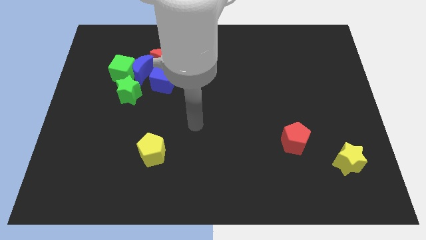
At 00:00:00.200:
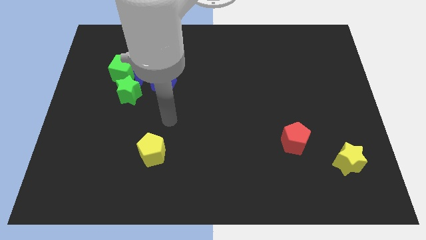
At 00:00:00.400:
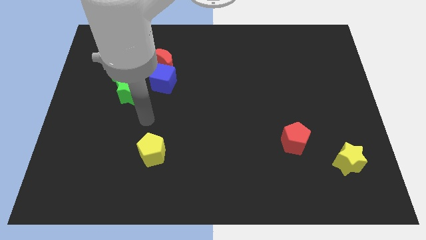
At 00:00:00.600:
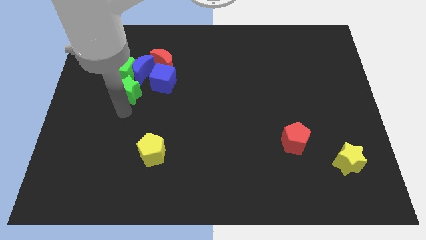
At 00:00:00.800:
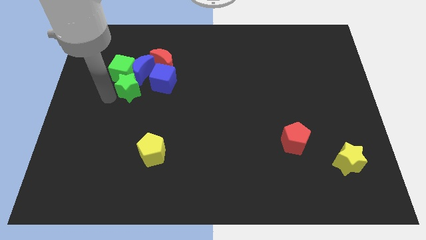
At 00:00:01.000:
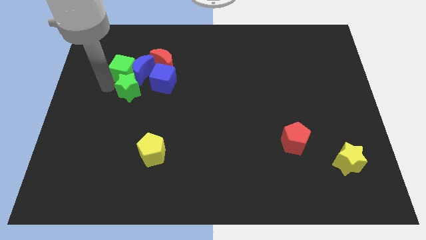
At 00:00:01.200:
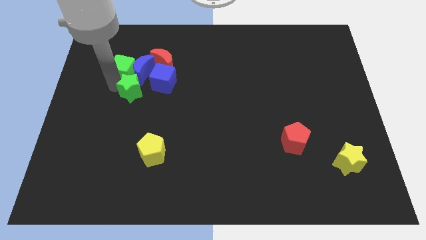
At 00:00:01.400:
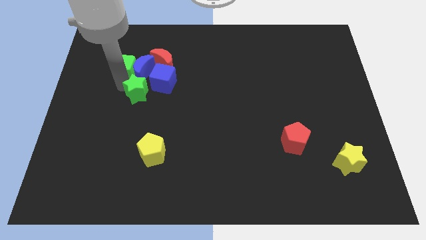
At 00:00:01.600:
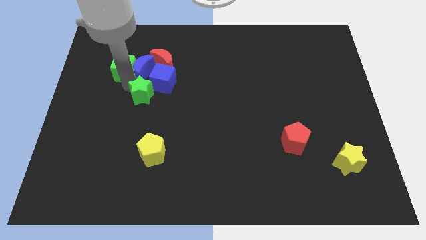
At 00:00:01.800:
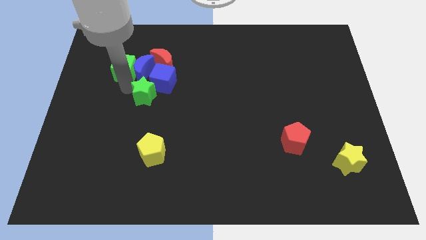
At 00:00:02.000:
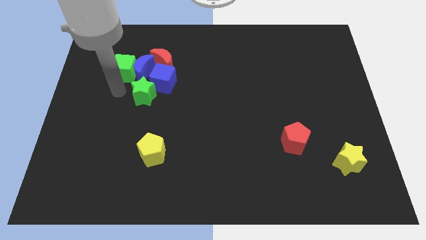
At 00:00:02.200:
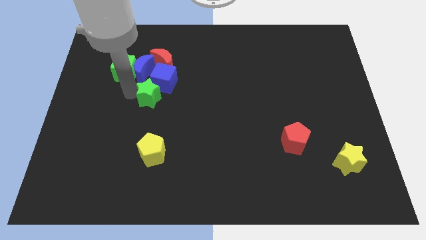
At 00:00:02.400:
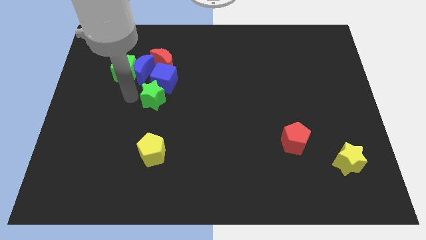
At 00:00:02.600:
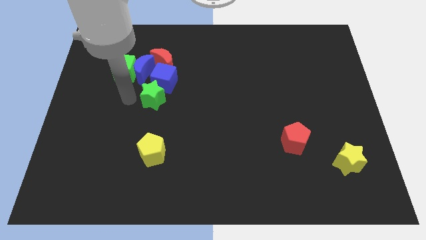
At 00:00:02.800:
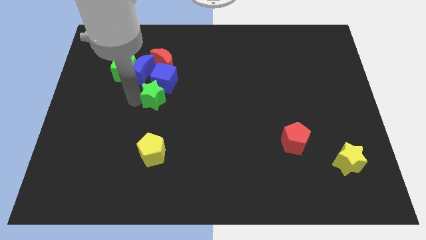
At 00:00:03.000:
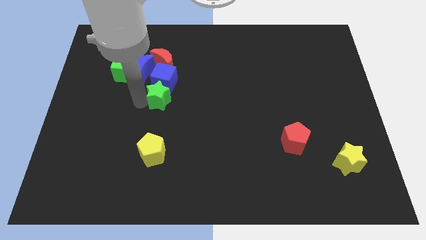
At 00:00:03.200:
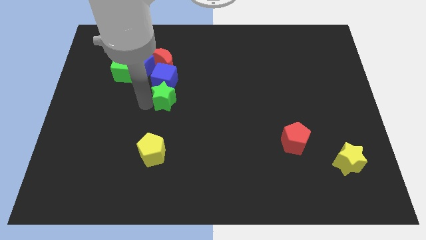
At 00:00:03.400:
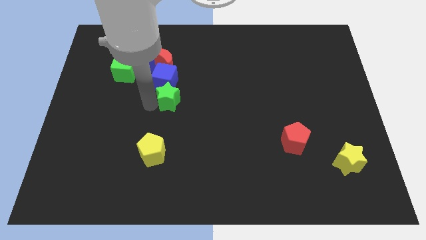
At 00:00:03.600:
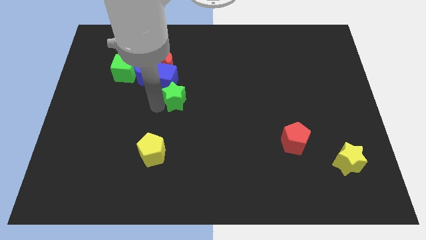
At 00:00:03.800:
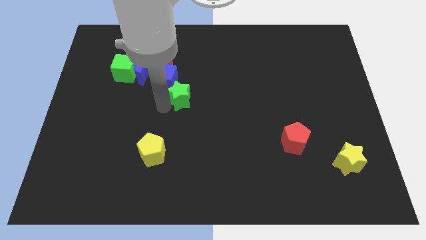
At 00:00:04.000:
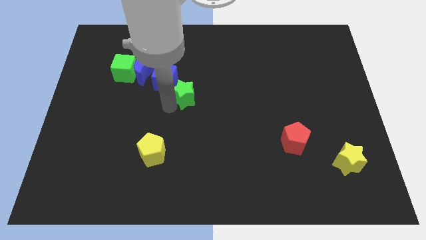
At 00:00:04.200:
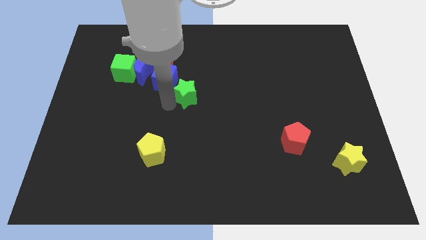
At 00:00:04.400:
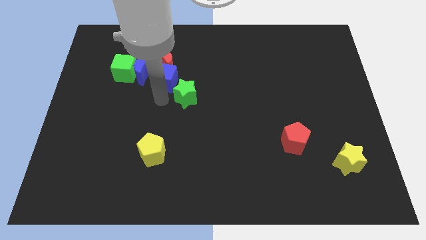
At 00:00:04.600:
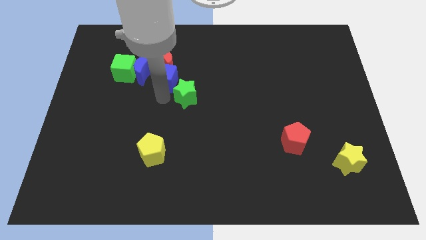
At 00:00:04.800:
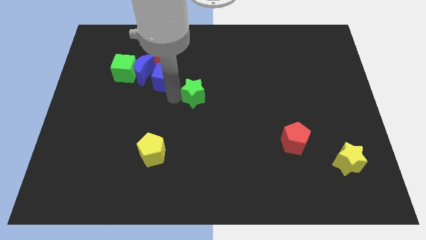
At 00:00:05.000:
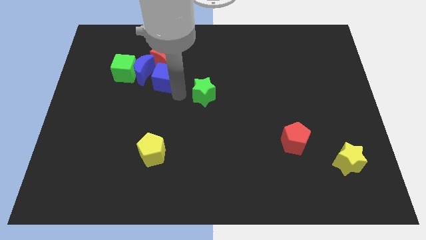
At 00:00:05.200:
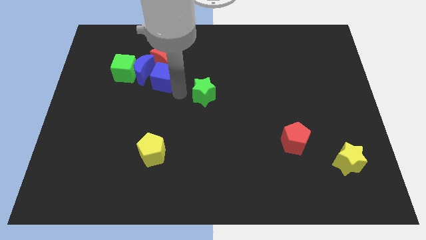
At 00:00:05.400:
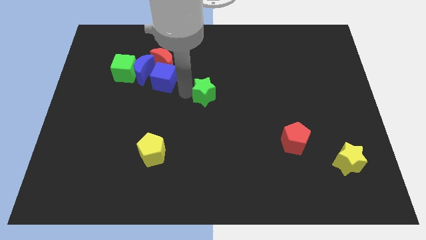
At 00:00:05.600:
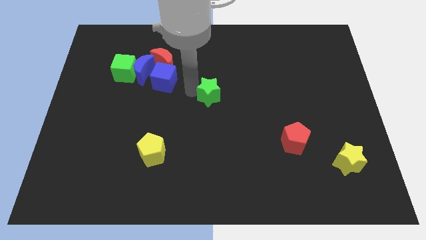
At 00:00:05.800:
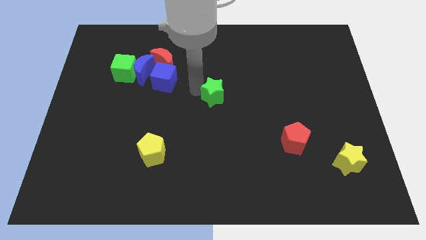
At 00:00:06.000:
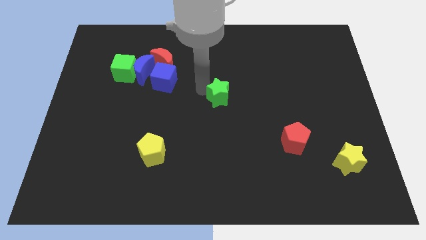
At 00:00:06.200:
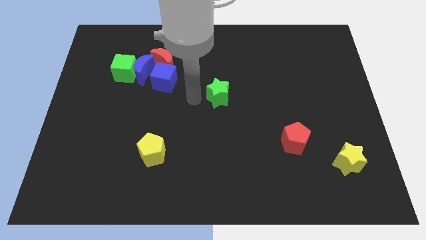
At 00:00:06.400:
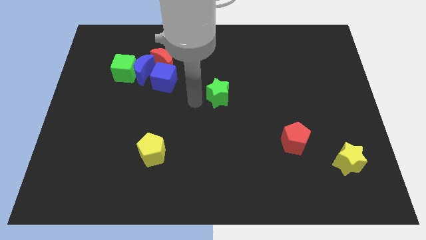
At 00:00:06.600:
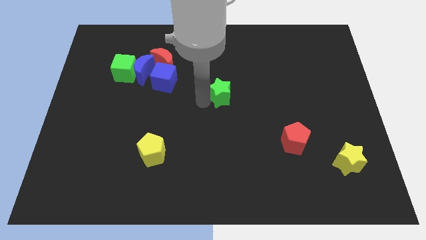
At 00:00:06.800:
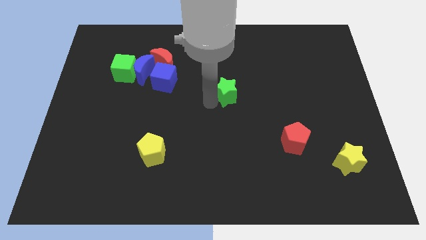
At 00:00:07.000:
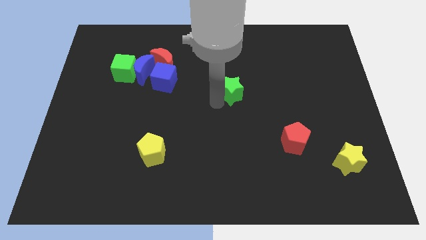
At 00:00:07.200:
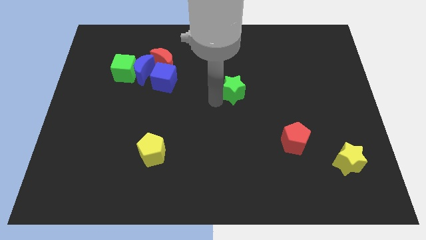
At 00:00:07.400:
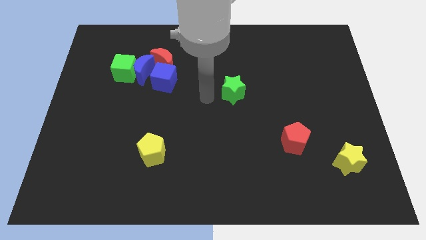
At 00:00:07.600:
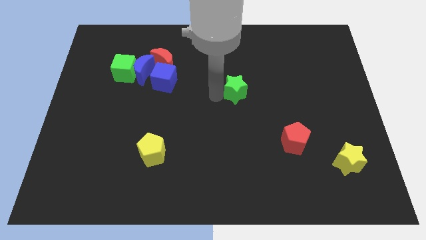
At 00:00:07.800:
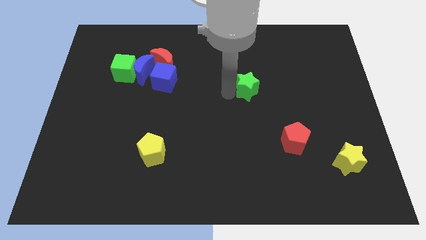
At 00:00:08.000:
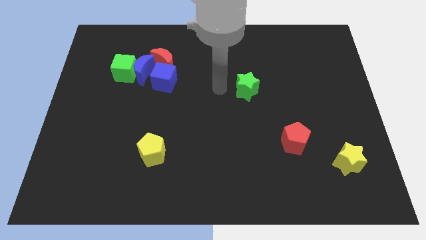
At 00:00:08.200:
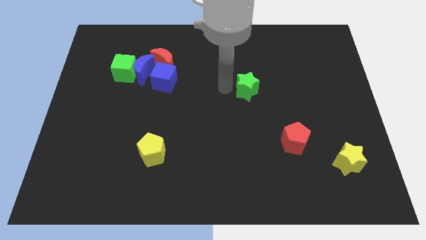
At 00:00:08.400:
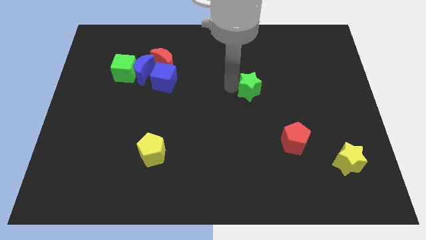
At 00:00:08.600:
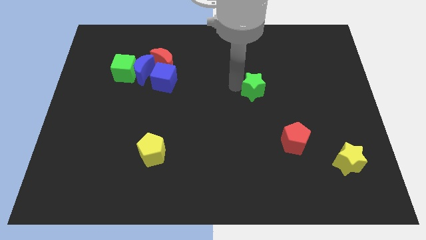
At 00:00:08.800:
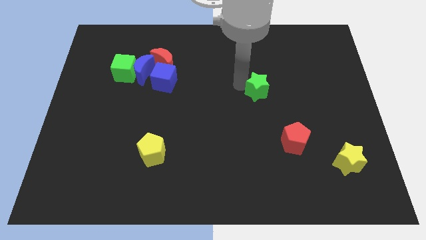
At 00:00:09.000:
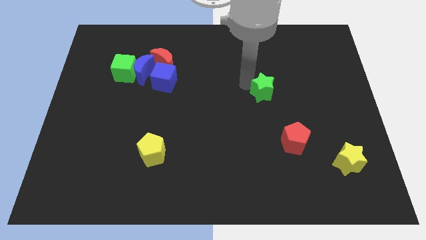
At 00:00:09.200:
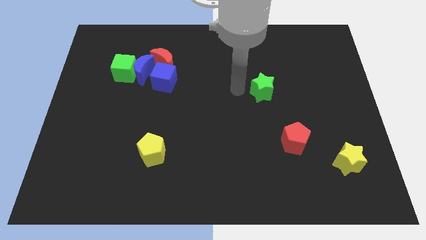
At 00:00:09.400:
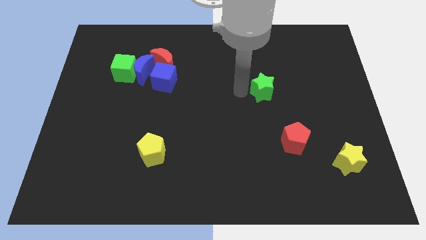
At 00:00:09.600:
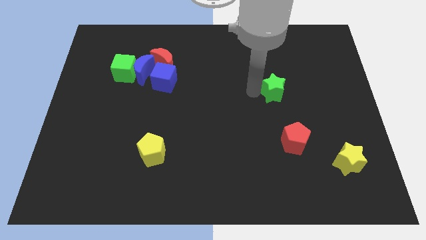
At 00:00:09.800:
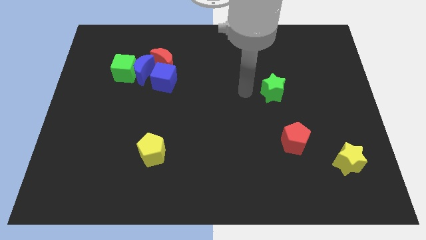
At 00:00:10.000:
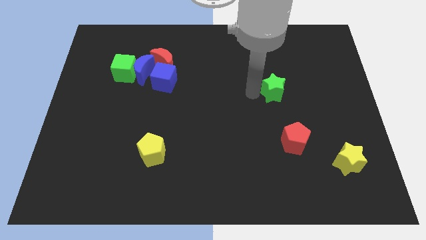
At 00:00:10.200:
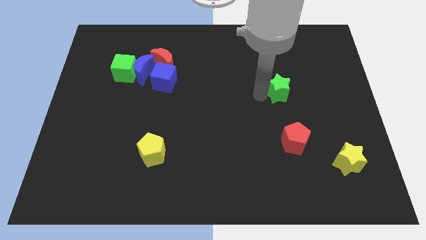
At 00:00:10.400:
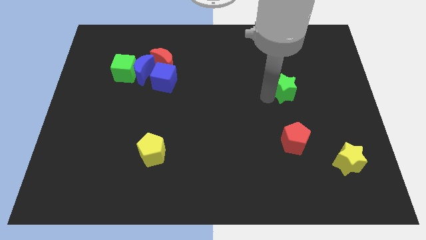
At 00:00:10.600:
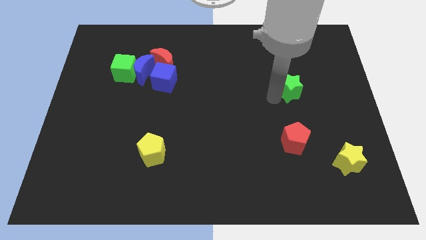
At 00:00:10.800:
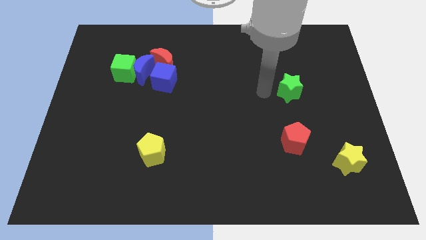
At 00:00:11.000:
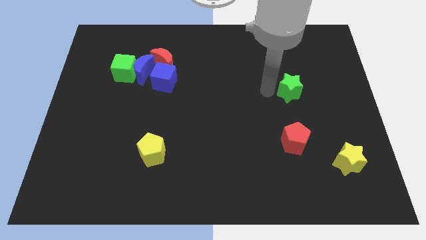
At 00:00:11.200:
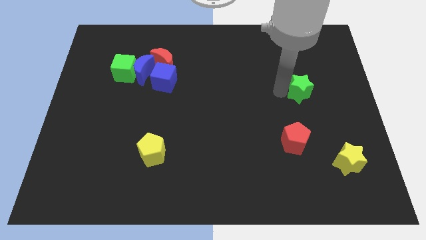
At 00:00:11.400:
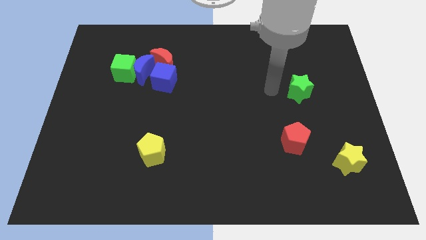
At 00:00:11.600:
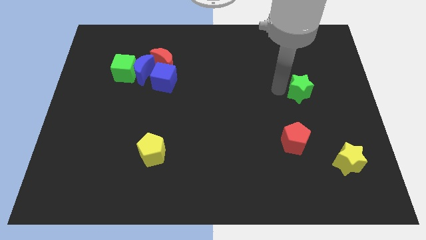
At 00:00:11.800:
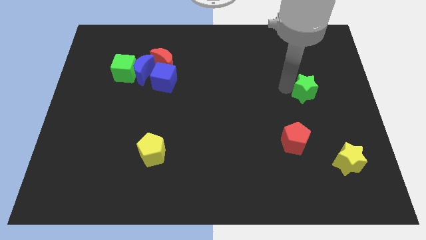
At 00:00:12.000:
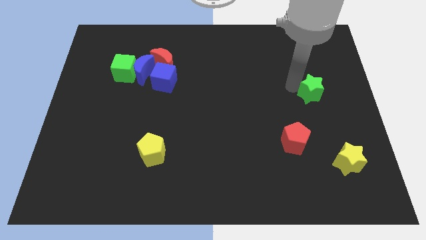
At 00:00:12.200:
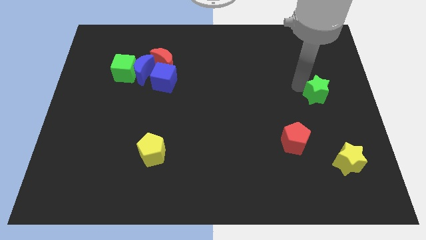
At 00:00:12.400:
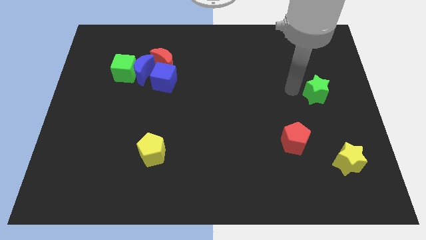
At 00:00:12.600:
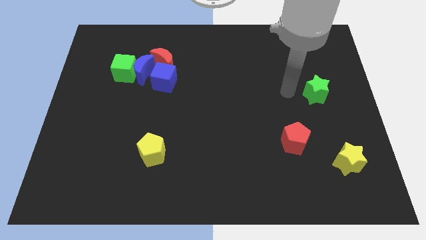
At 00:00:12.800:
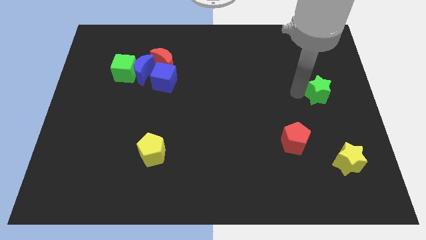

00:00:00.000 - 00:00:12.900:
slide the green star to the right side of the board
